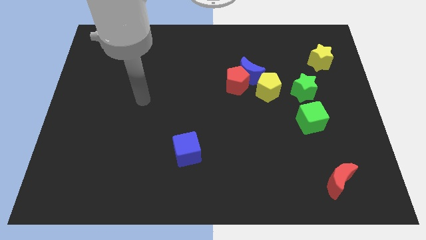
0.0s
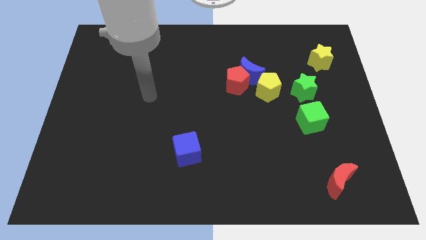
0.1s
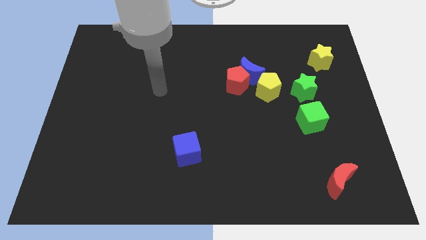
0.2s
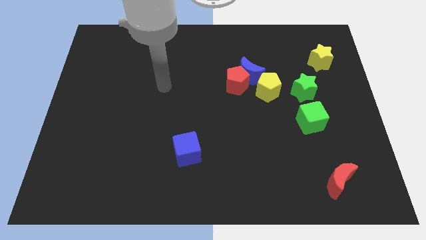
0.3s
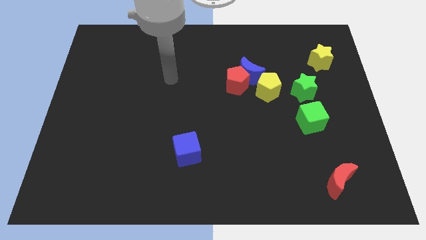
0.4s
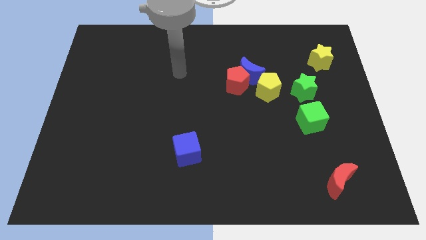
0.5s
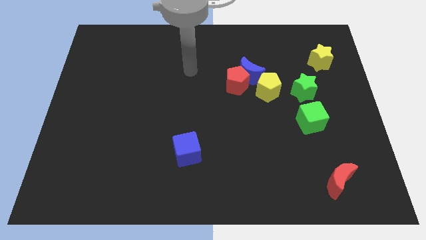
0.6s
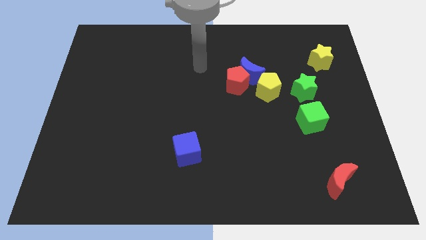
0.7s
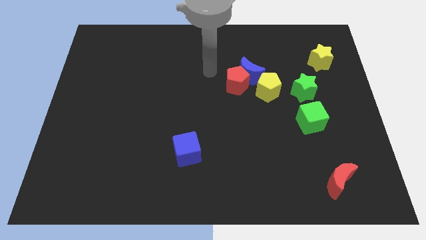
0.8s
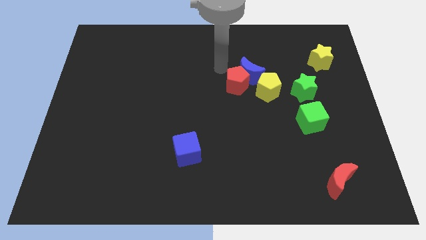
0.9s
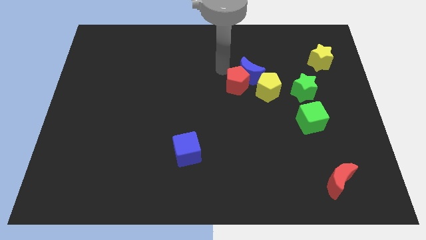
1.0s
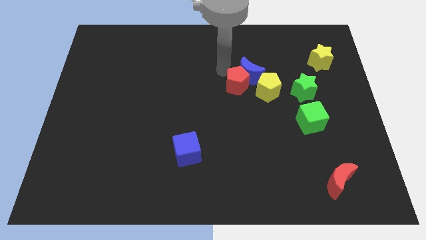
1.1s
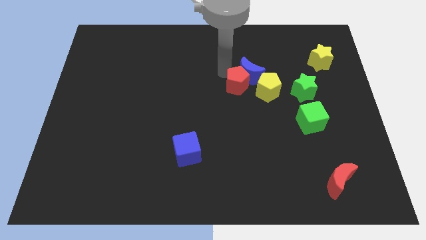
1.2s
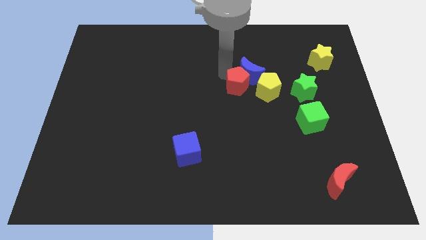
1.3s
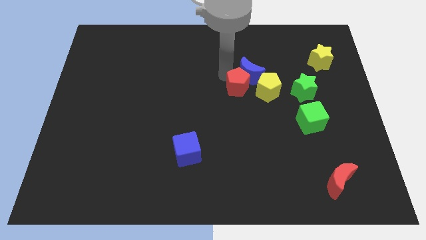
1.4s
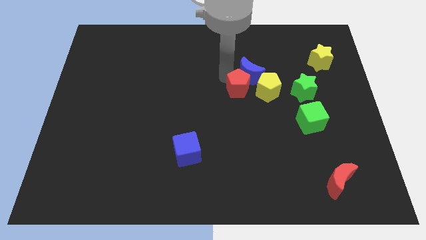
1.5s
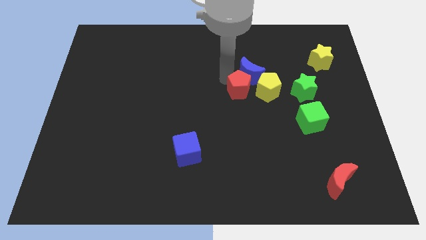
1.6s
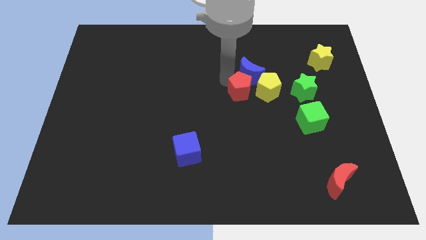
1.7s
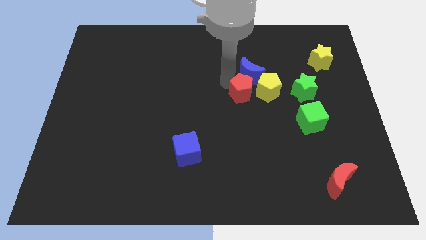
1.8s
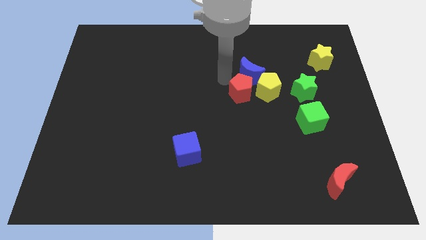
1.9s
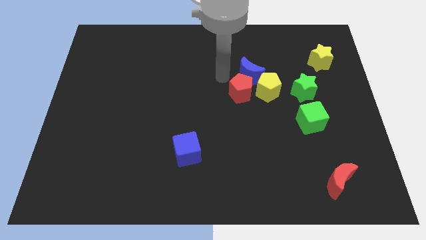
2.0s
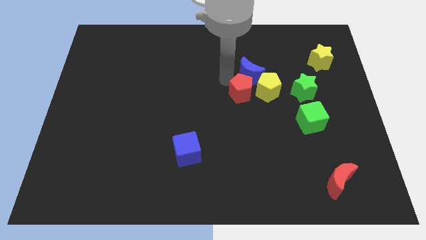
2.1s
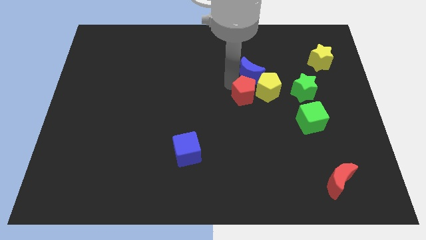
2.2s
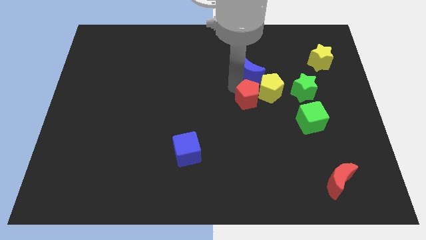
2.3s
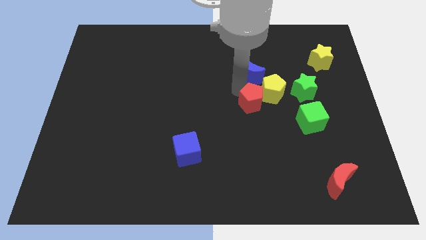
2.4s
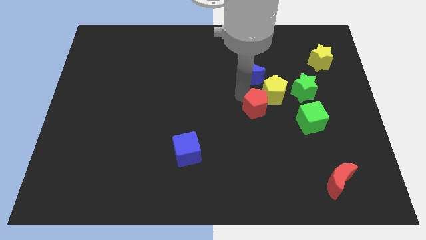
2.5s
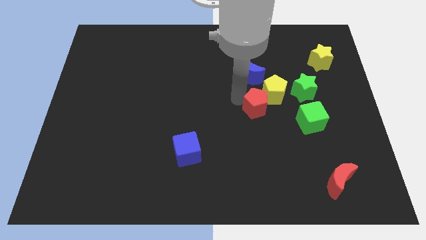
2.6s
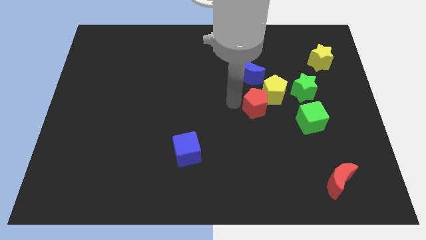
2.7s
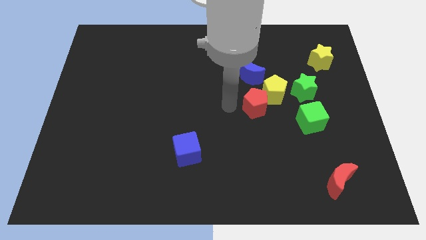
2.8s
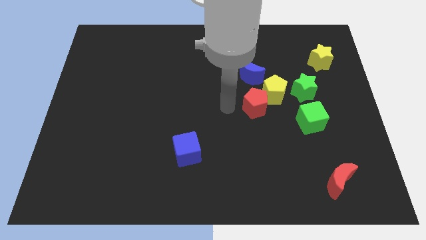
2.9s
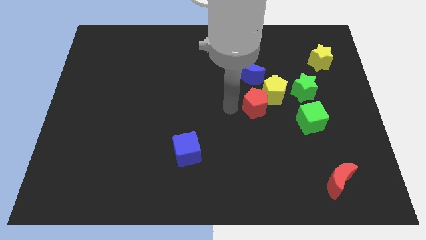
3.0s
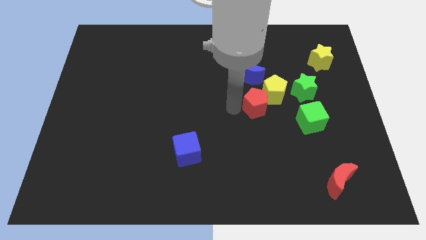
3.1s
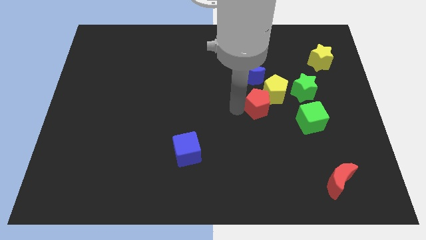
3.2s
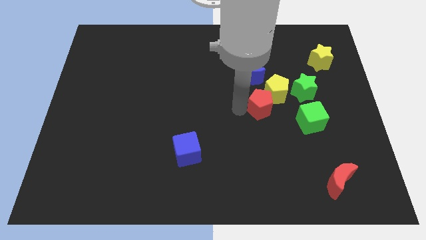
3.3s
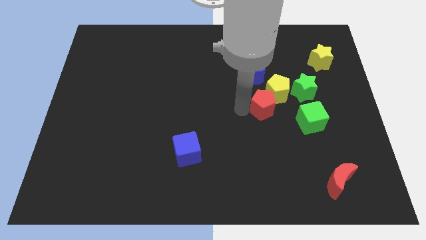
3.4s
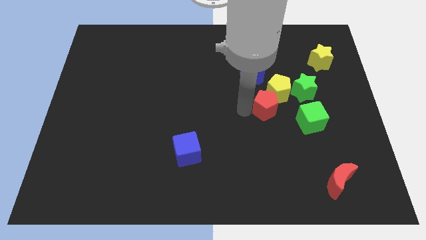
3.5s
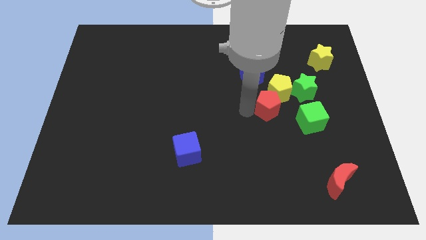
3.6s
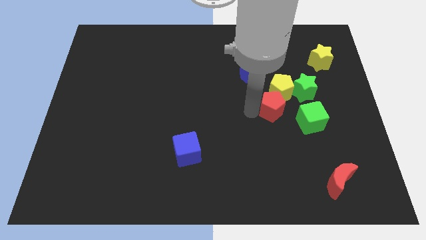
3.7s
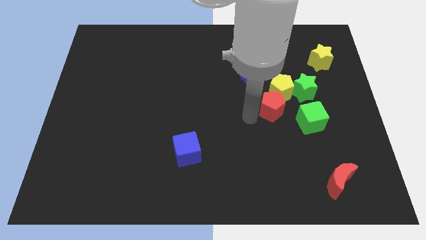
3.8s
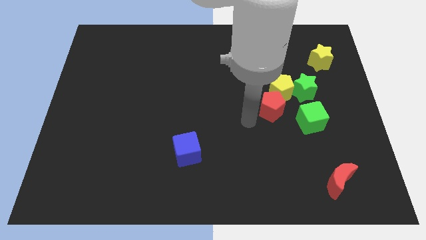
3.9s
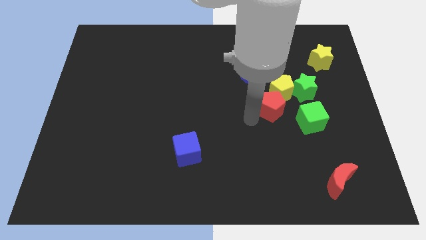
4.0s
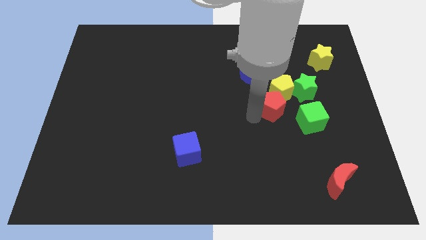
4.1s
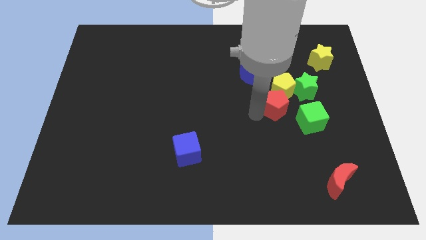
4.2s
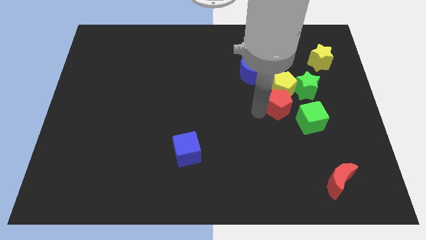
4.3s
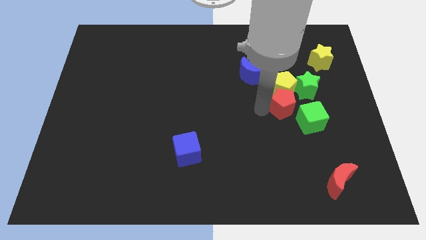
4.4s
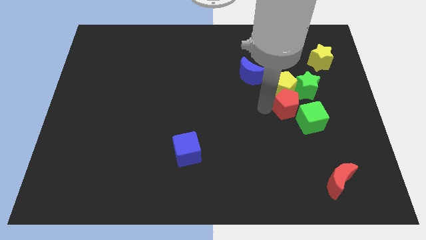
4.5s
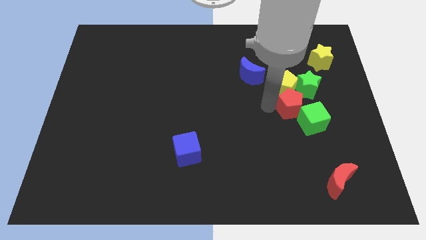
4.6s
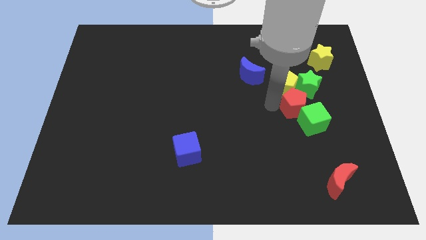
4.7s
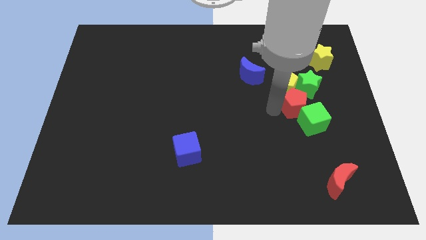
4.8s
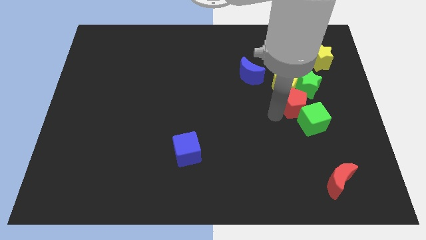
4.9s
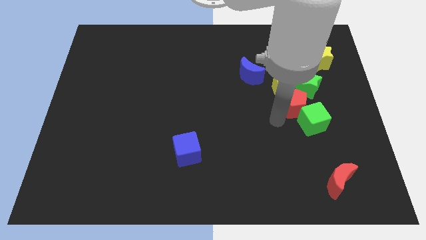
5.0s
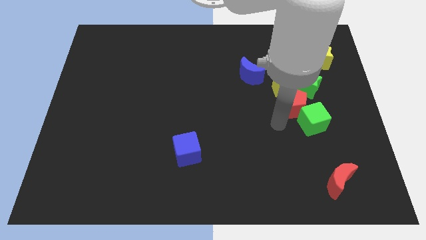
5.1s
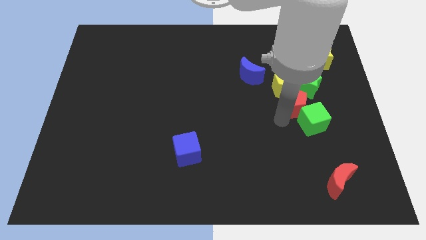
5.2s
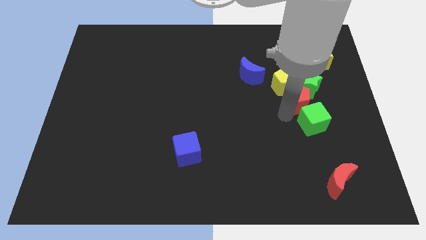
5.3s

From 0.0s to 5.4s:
put the red pentagon to the green star

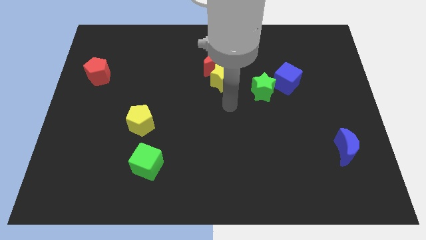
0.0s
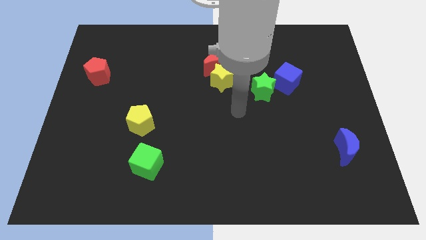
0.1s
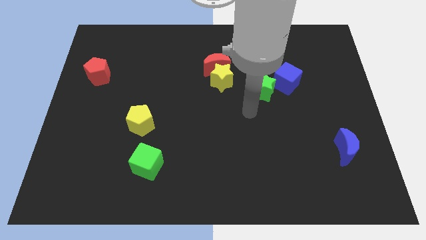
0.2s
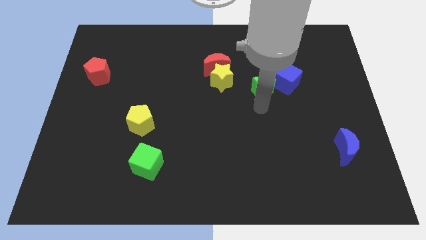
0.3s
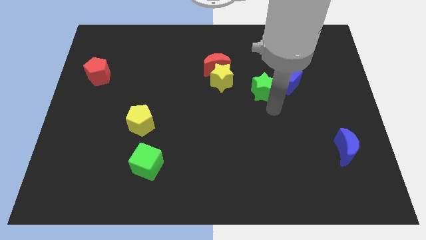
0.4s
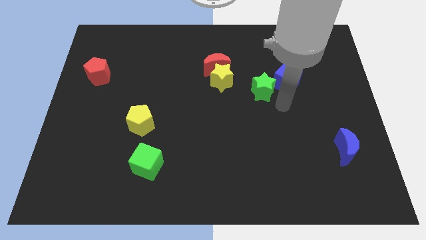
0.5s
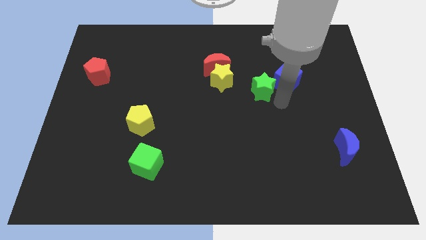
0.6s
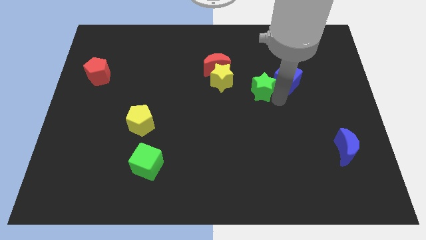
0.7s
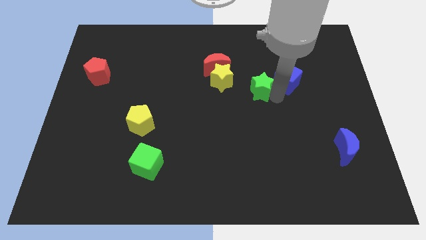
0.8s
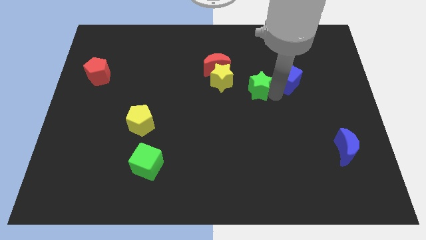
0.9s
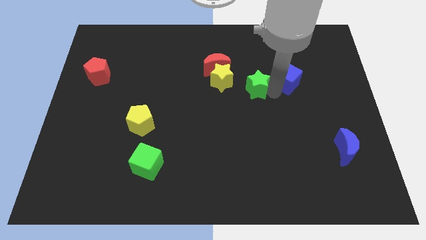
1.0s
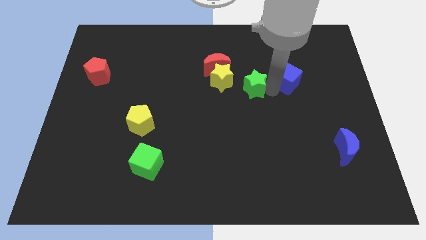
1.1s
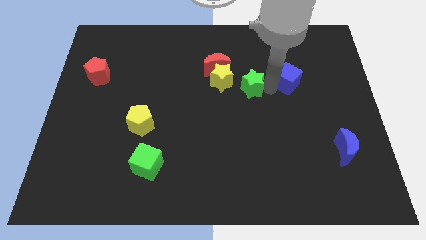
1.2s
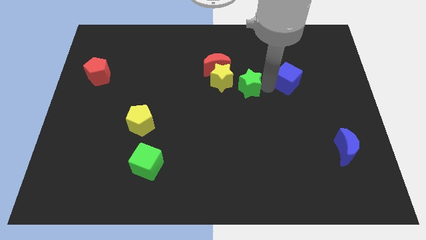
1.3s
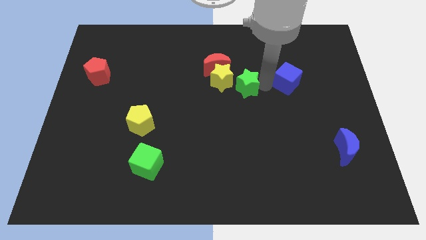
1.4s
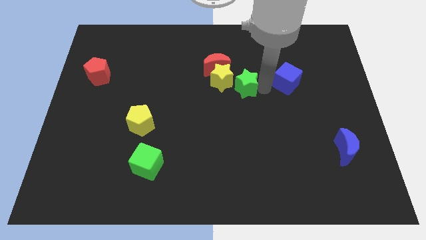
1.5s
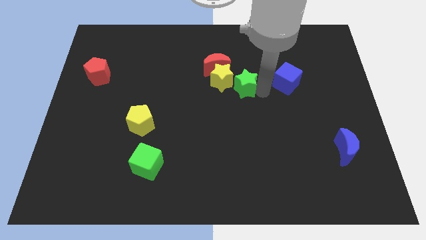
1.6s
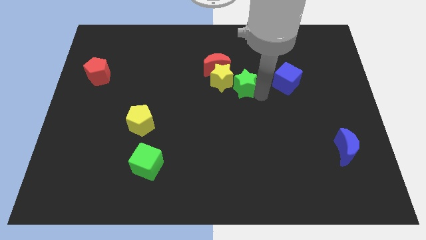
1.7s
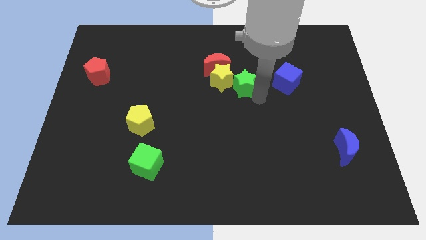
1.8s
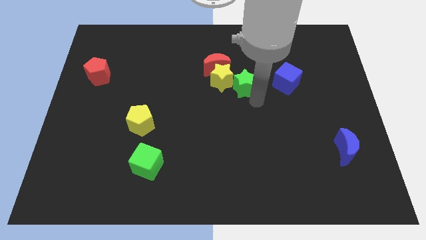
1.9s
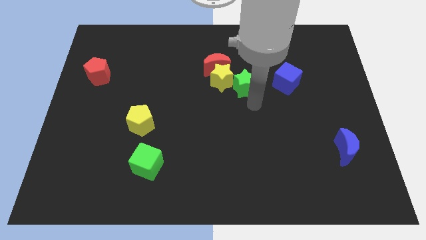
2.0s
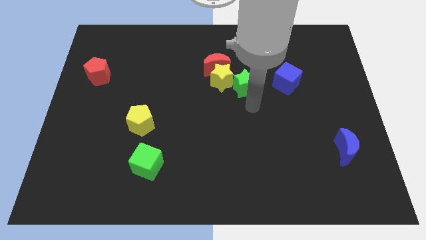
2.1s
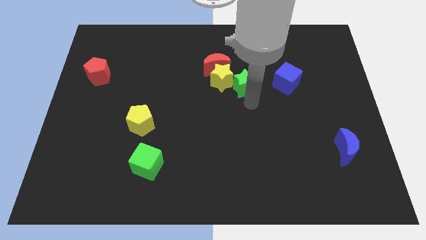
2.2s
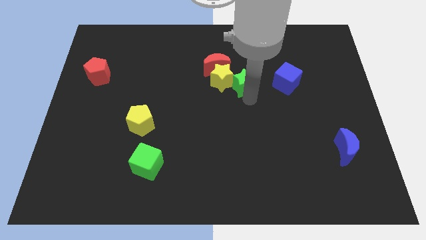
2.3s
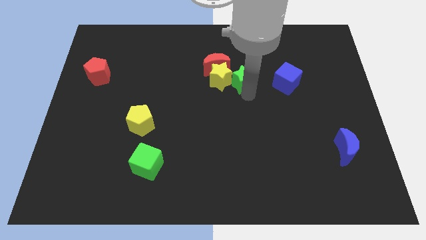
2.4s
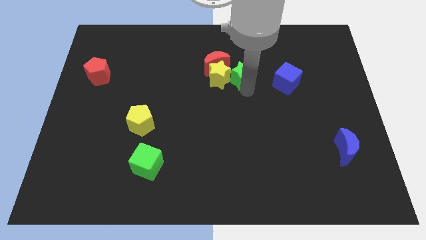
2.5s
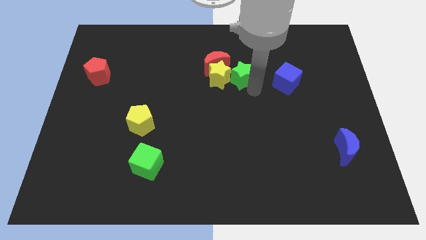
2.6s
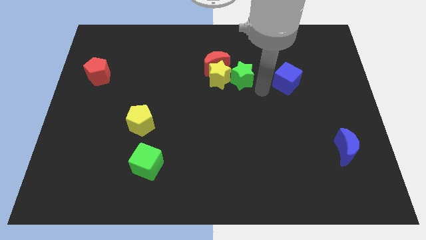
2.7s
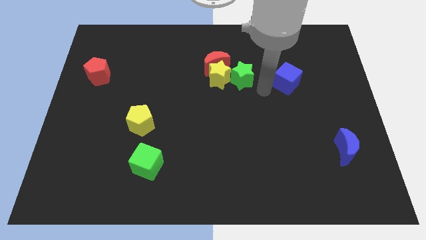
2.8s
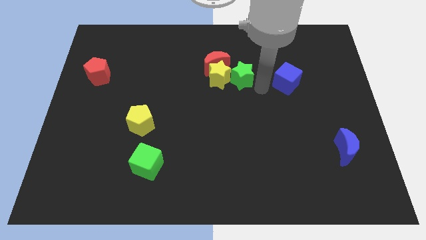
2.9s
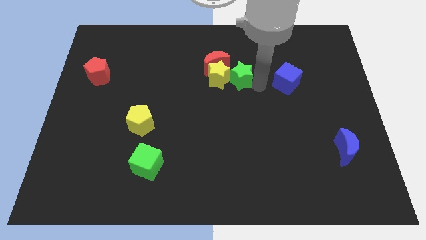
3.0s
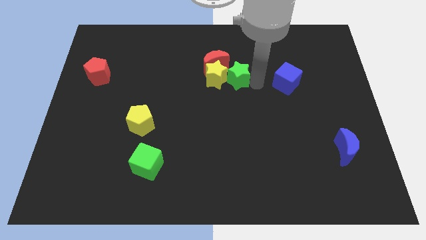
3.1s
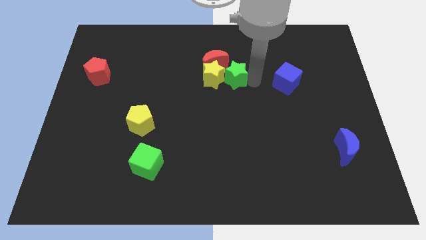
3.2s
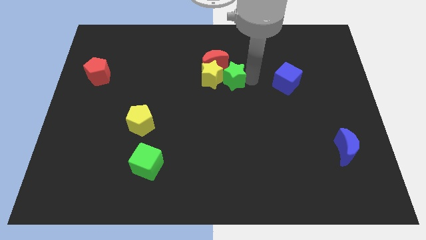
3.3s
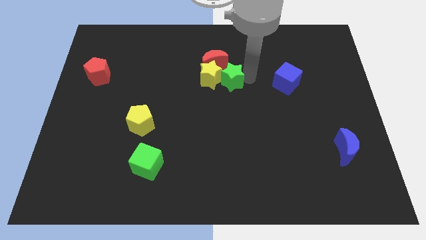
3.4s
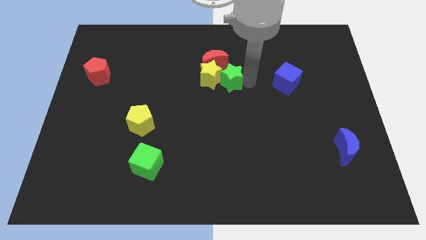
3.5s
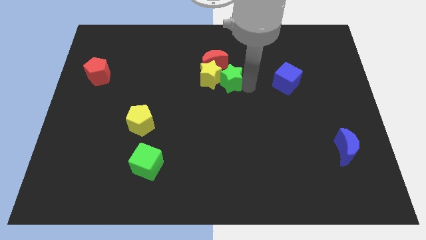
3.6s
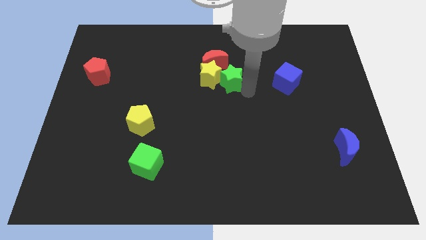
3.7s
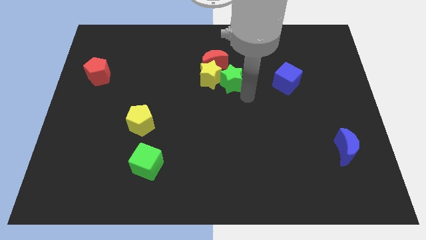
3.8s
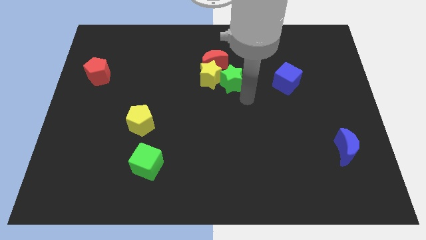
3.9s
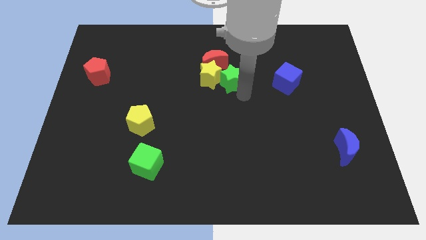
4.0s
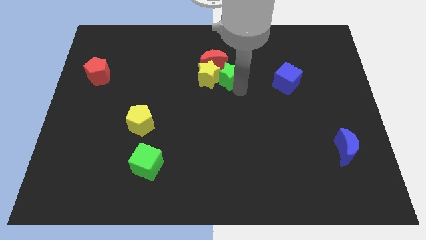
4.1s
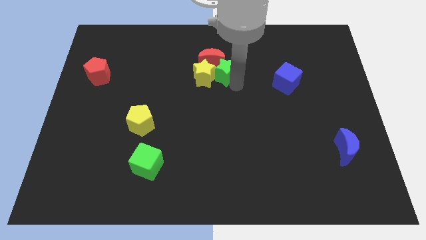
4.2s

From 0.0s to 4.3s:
push the green star to the red moon
